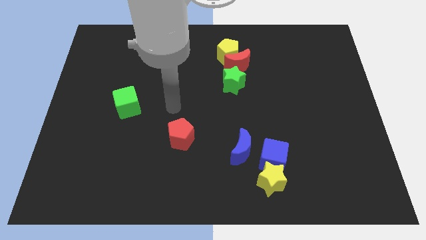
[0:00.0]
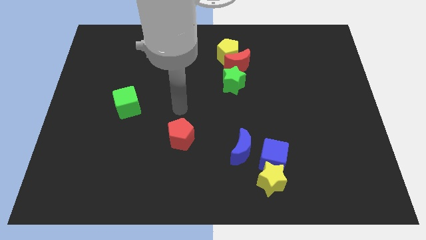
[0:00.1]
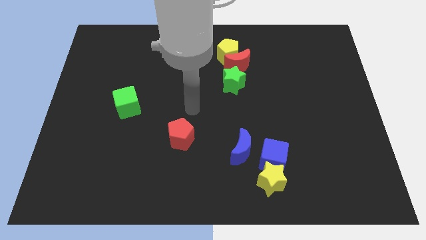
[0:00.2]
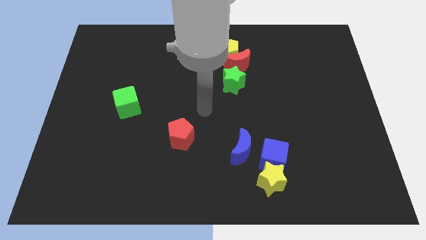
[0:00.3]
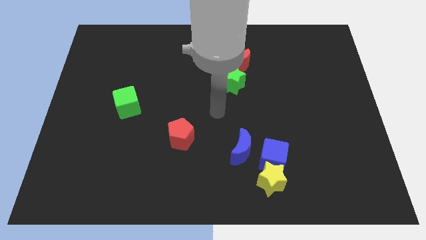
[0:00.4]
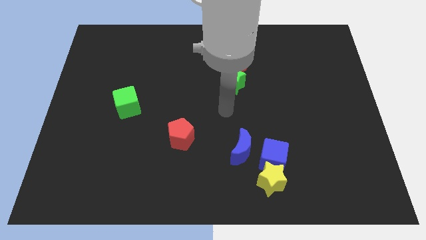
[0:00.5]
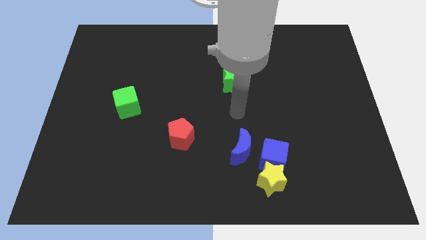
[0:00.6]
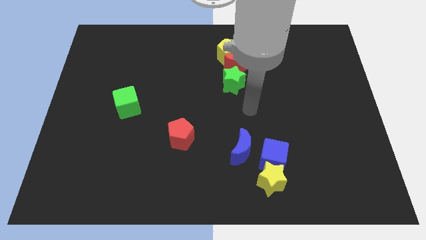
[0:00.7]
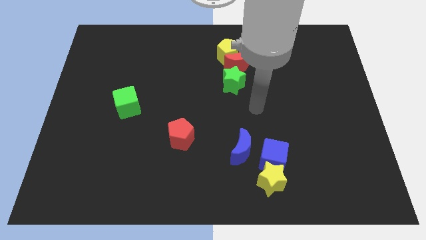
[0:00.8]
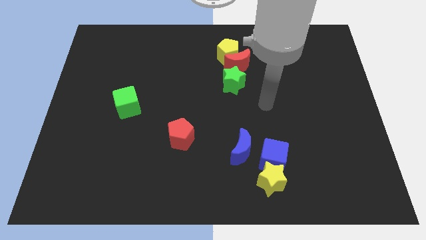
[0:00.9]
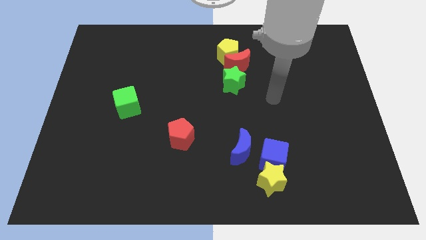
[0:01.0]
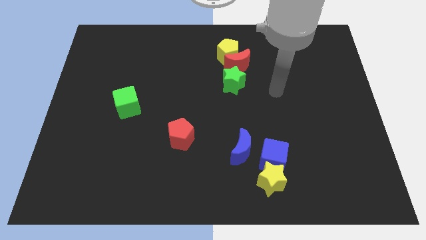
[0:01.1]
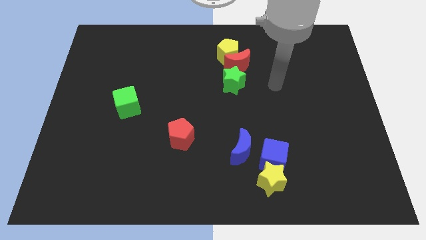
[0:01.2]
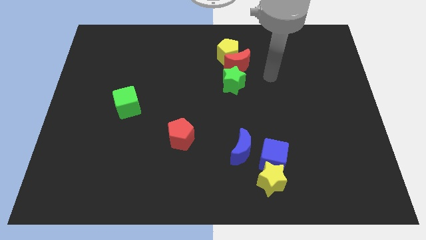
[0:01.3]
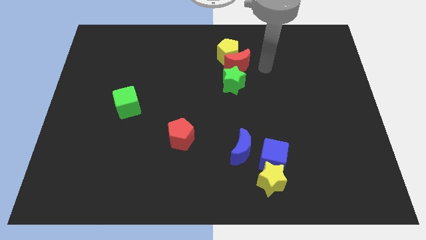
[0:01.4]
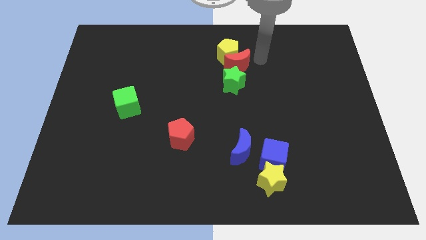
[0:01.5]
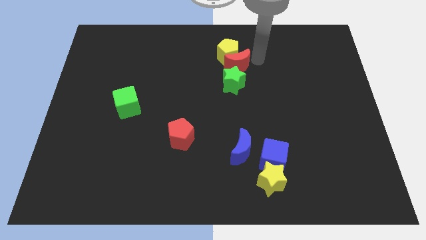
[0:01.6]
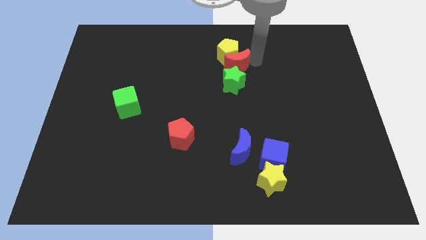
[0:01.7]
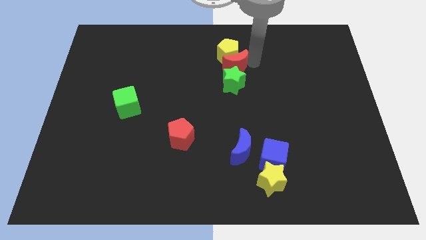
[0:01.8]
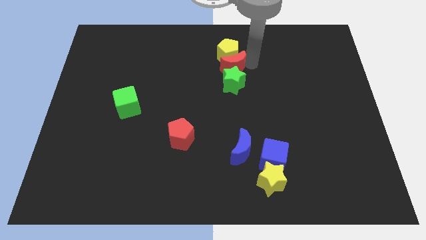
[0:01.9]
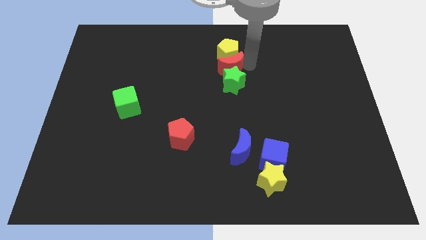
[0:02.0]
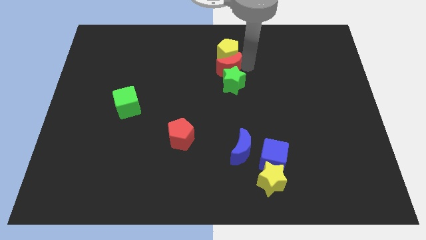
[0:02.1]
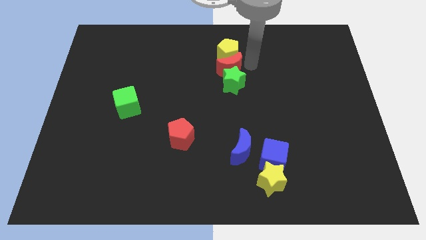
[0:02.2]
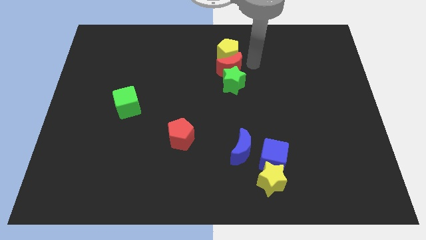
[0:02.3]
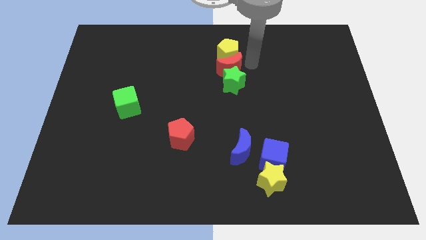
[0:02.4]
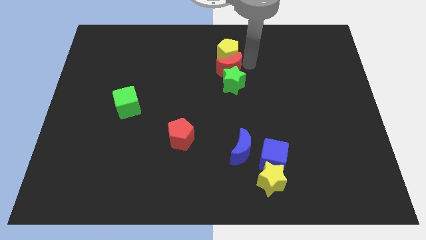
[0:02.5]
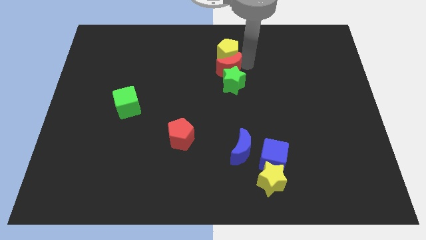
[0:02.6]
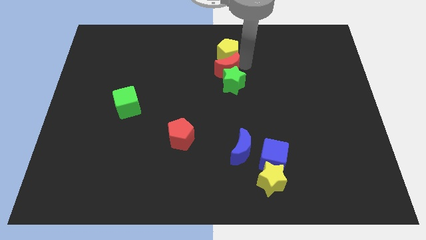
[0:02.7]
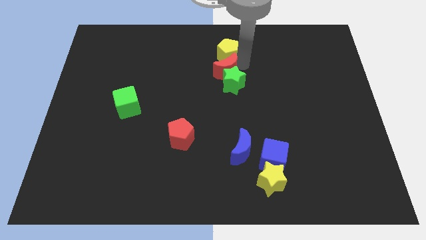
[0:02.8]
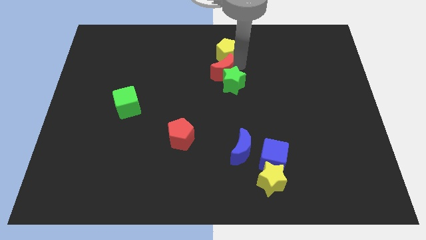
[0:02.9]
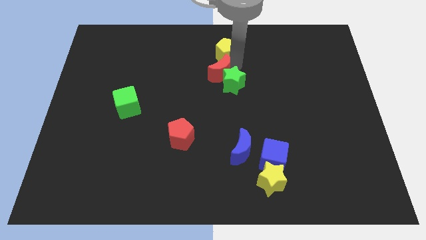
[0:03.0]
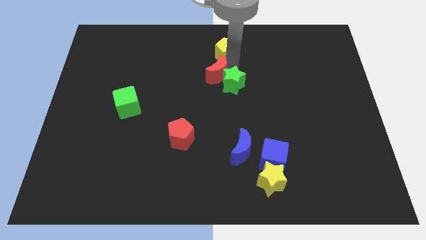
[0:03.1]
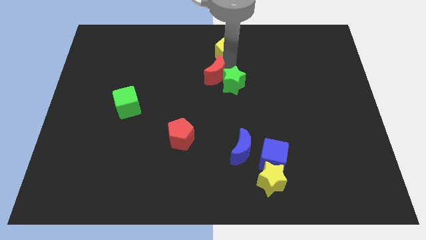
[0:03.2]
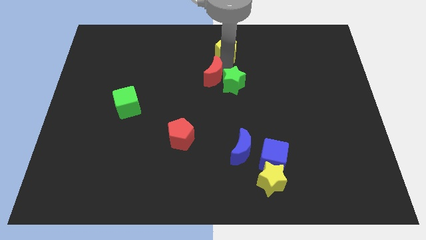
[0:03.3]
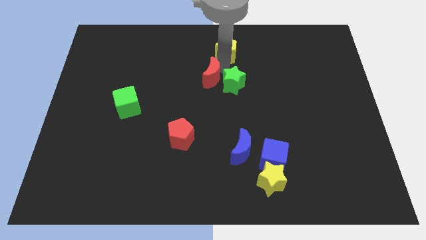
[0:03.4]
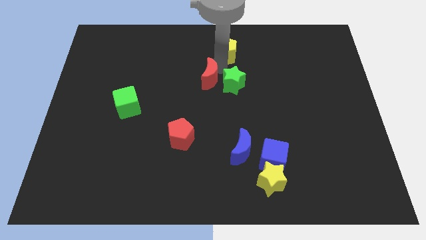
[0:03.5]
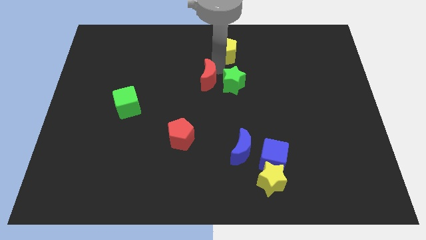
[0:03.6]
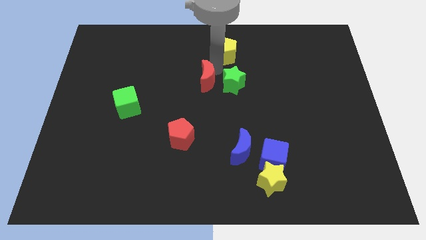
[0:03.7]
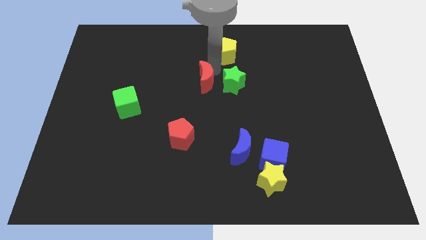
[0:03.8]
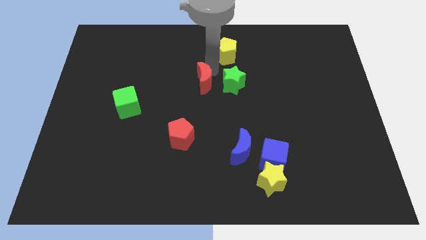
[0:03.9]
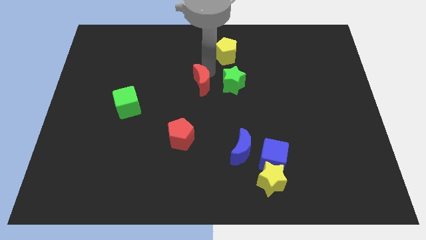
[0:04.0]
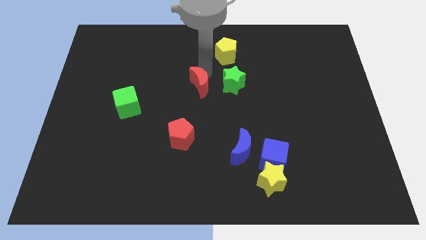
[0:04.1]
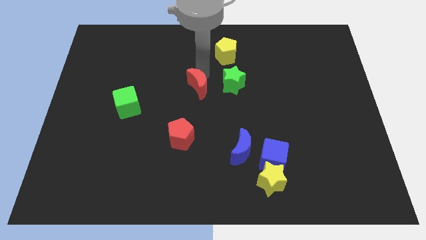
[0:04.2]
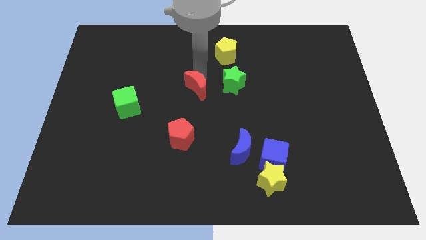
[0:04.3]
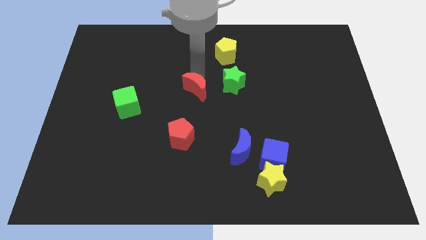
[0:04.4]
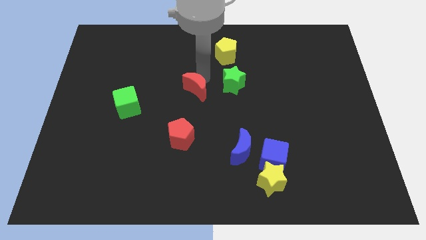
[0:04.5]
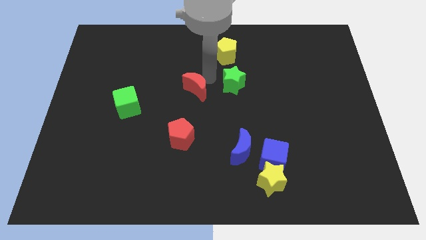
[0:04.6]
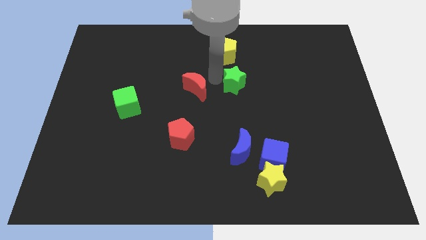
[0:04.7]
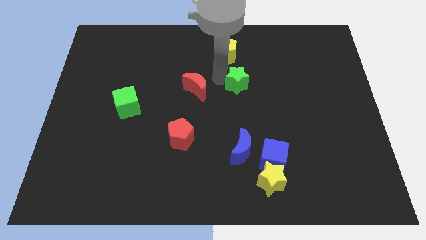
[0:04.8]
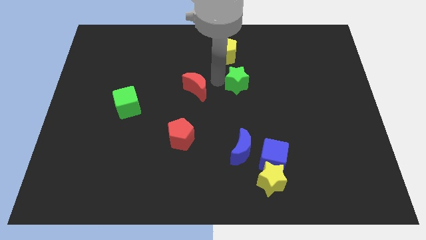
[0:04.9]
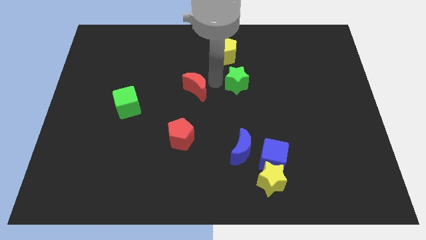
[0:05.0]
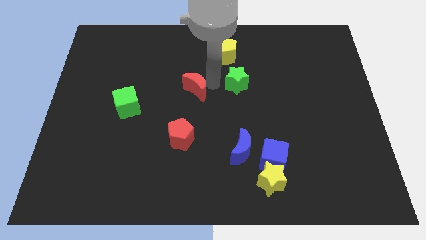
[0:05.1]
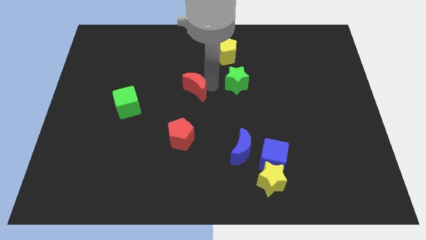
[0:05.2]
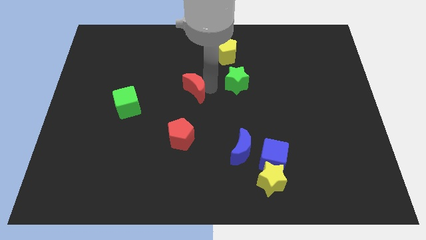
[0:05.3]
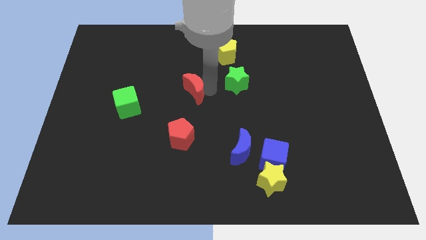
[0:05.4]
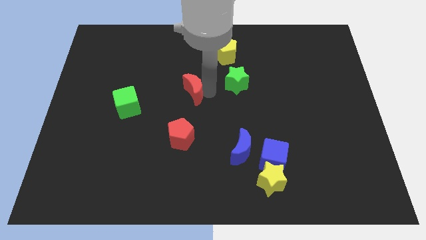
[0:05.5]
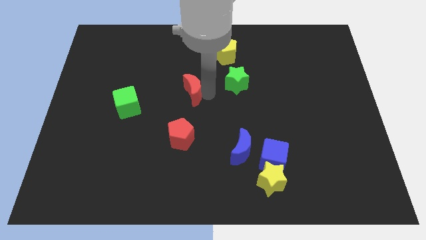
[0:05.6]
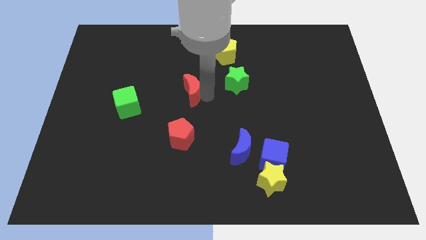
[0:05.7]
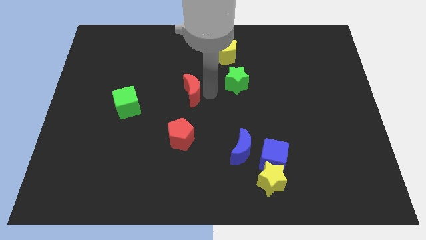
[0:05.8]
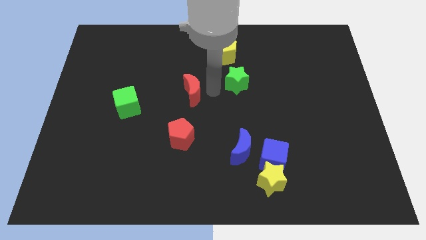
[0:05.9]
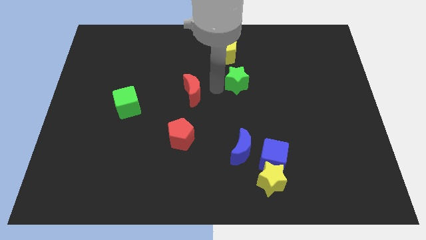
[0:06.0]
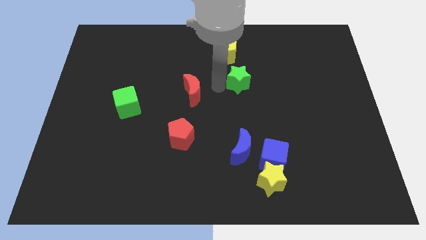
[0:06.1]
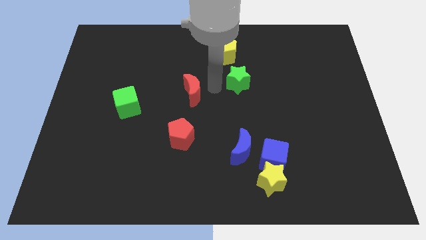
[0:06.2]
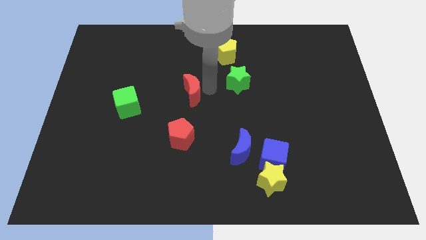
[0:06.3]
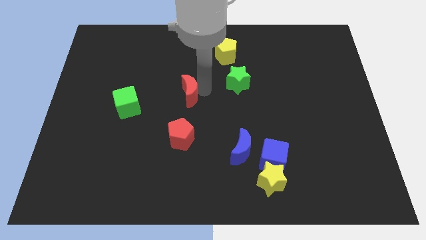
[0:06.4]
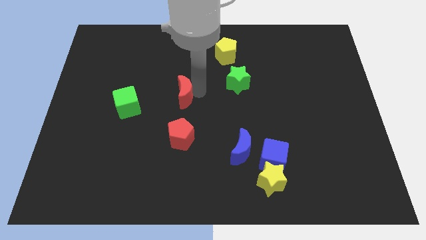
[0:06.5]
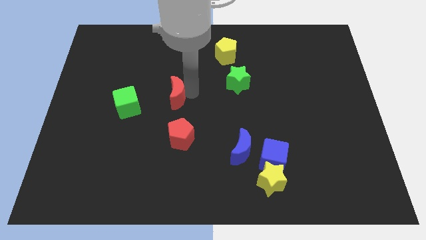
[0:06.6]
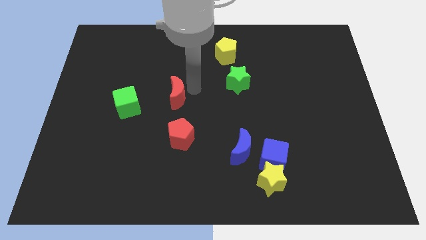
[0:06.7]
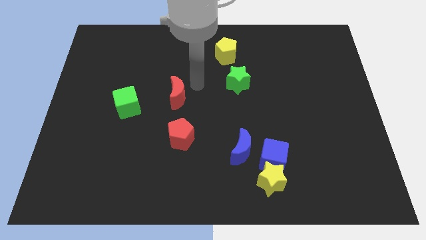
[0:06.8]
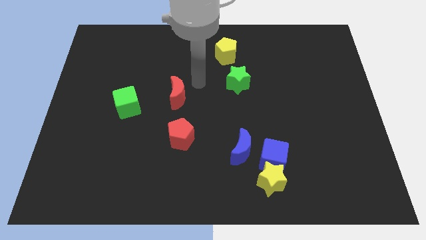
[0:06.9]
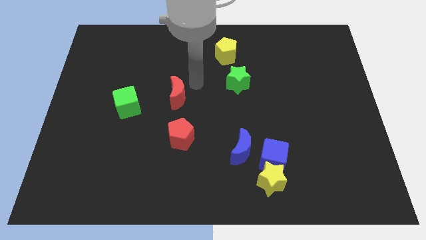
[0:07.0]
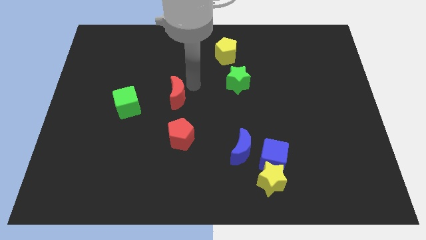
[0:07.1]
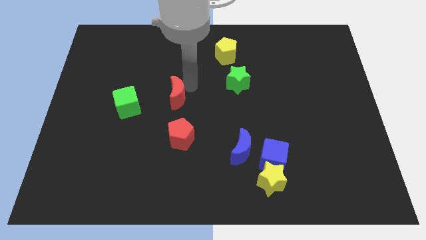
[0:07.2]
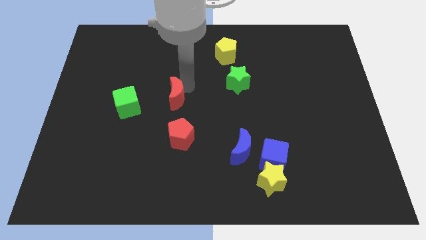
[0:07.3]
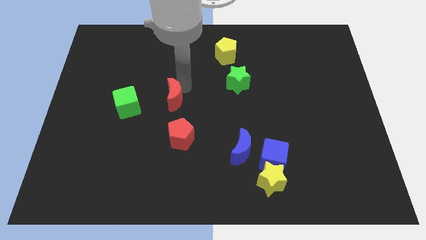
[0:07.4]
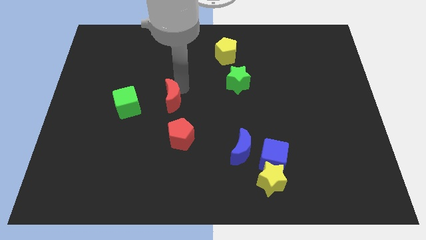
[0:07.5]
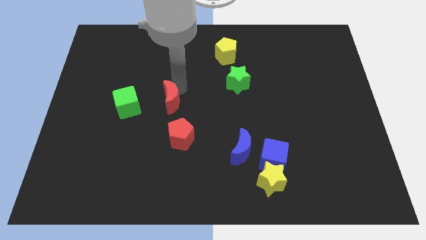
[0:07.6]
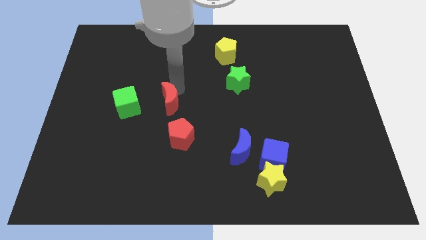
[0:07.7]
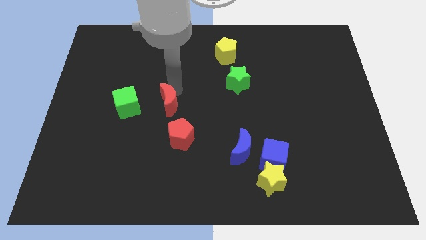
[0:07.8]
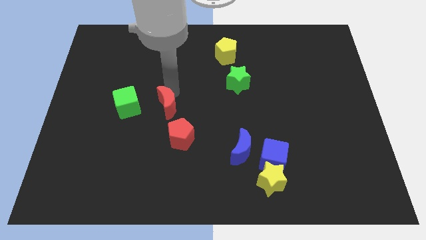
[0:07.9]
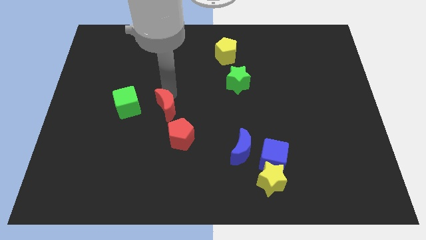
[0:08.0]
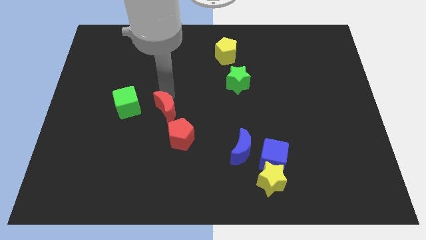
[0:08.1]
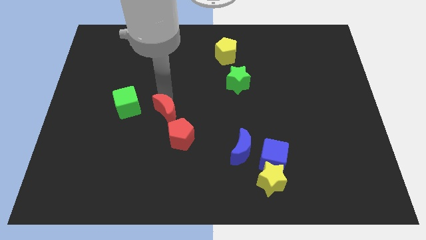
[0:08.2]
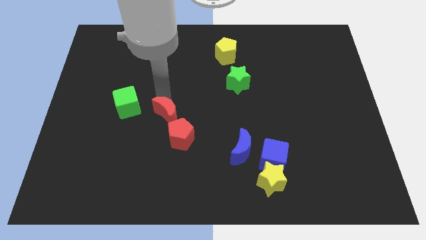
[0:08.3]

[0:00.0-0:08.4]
slide the red moon diagonally down and to the right of the green cube
